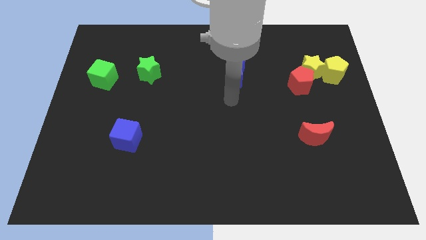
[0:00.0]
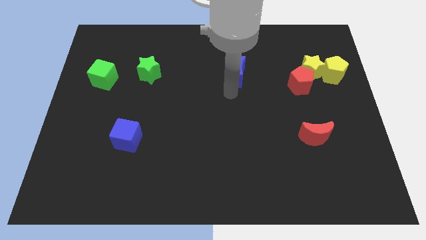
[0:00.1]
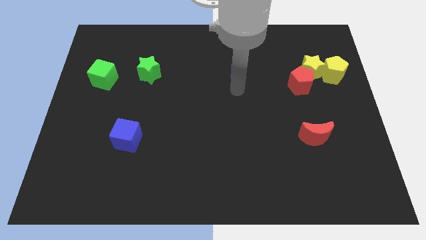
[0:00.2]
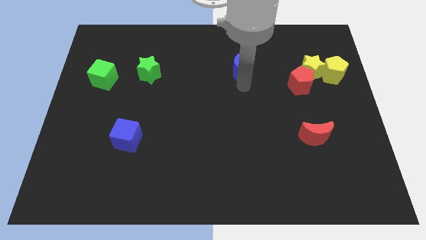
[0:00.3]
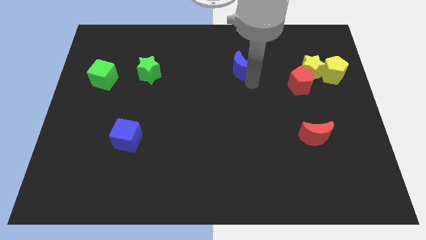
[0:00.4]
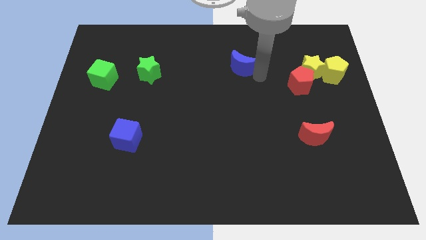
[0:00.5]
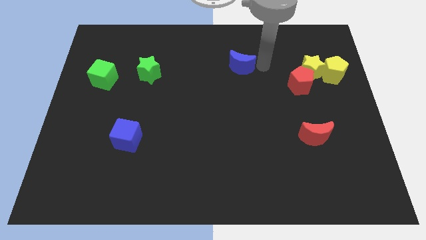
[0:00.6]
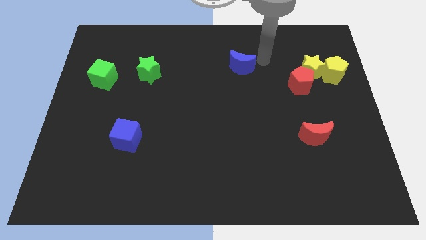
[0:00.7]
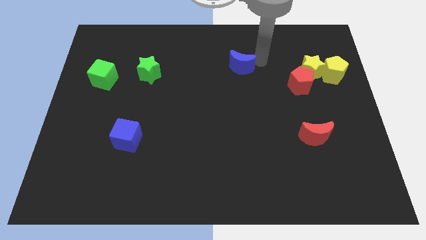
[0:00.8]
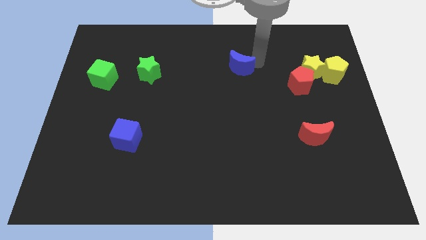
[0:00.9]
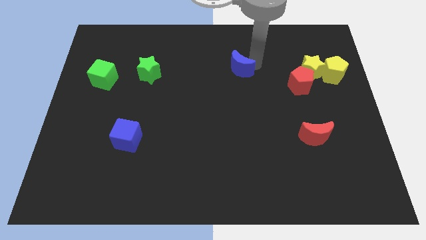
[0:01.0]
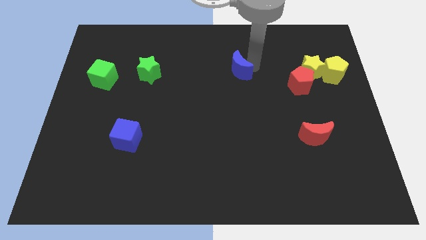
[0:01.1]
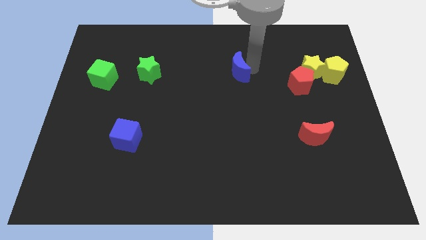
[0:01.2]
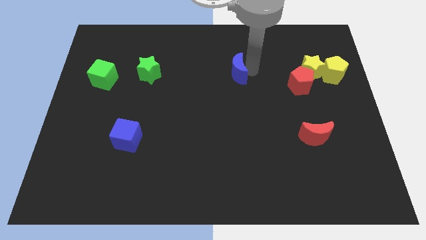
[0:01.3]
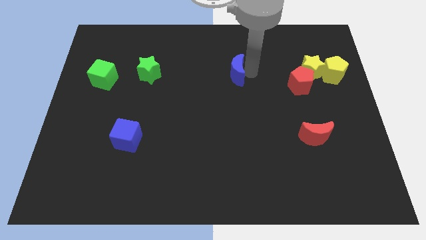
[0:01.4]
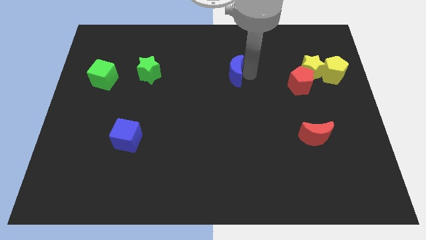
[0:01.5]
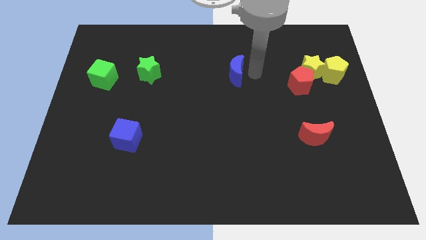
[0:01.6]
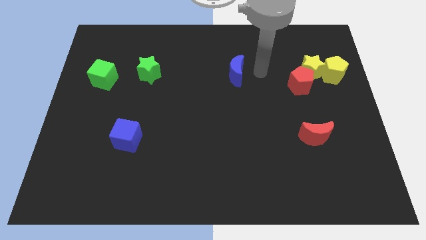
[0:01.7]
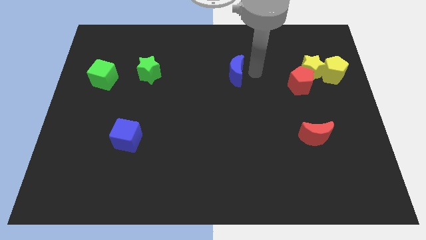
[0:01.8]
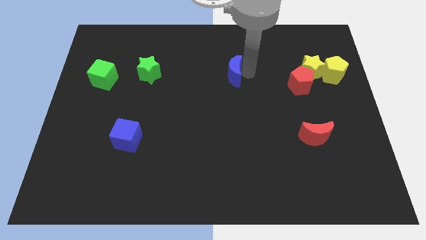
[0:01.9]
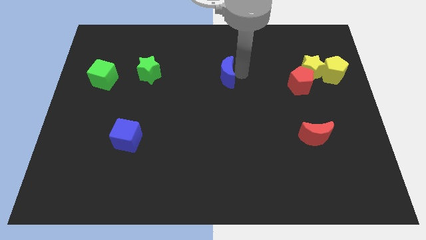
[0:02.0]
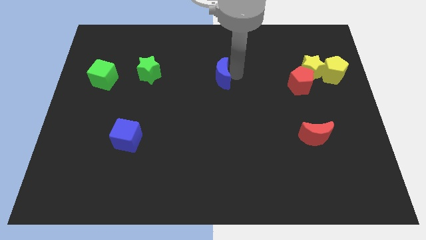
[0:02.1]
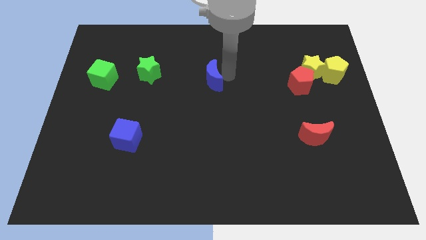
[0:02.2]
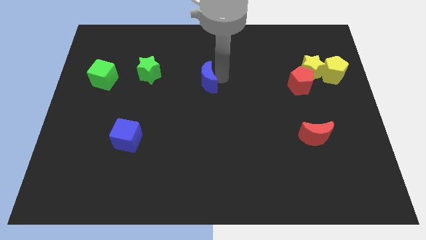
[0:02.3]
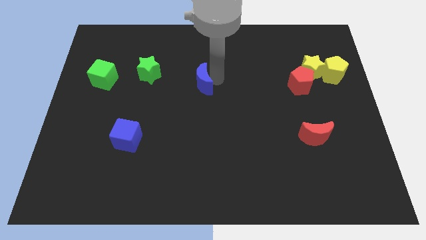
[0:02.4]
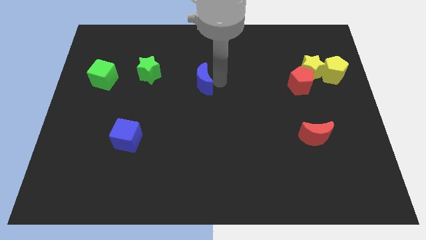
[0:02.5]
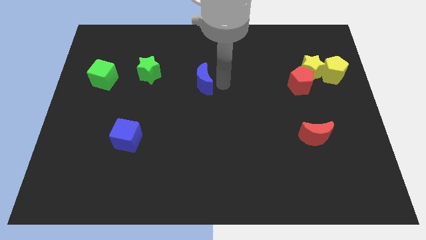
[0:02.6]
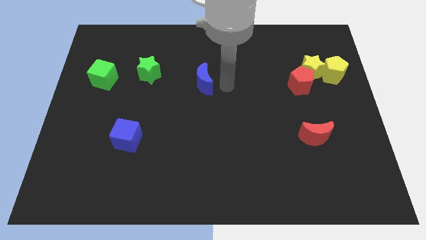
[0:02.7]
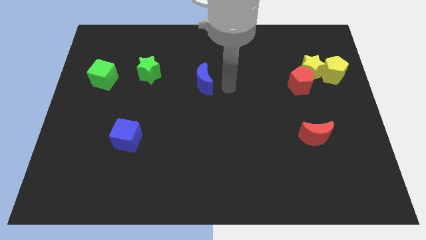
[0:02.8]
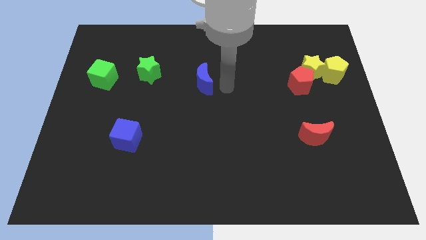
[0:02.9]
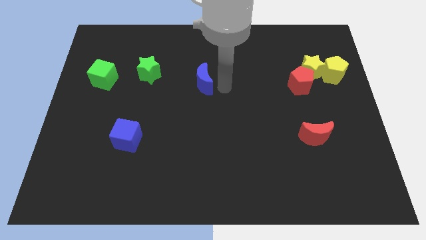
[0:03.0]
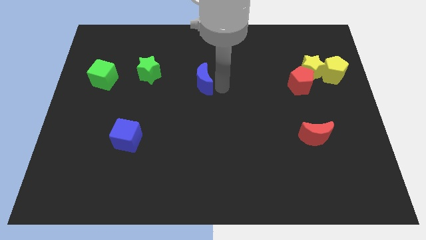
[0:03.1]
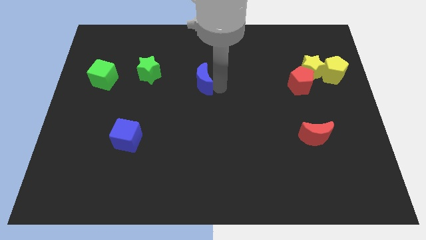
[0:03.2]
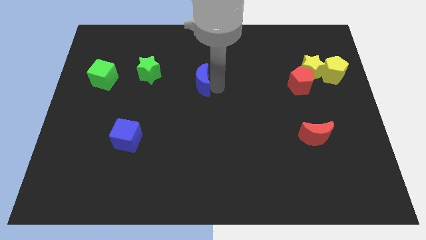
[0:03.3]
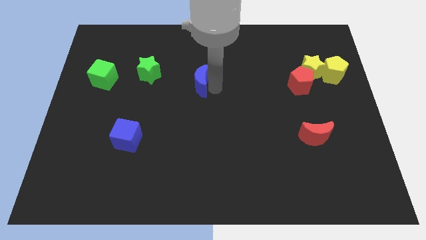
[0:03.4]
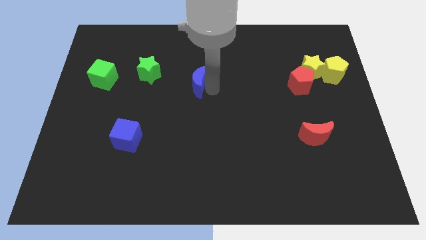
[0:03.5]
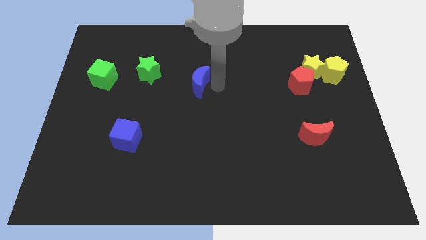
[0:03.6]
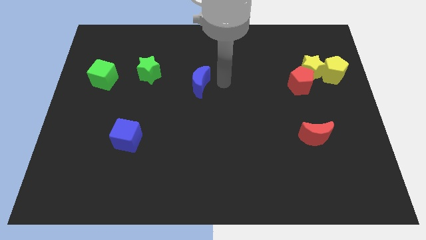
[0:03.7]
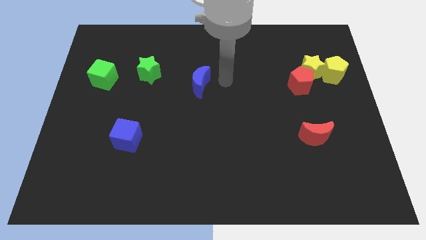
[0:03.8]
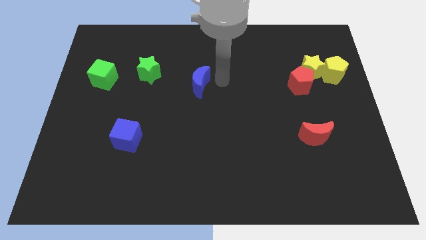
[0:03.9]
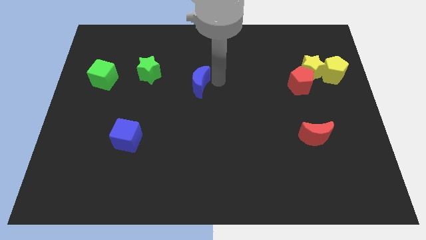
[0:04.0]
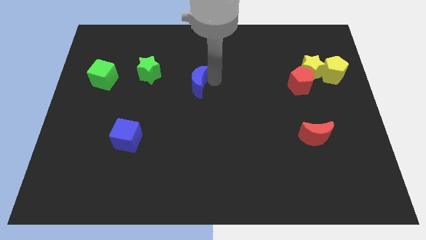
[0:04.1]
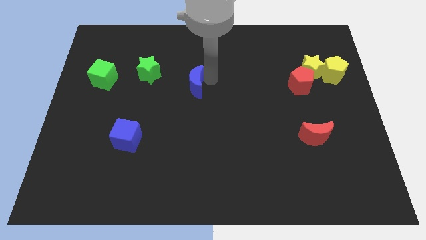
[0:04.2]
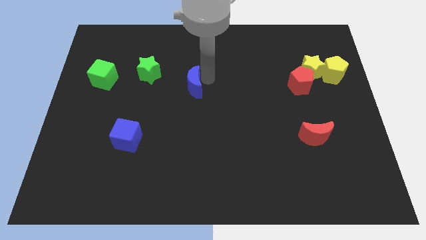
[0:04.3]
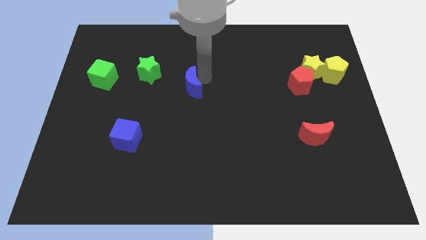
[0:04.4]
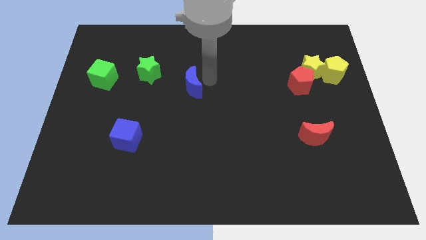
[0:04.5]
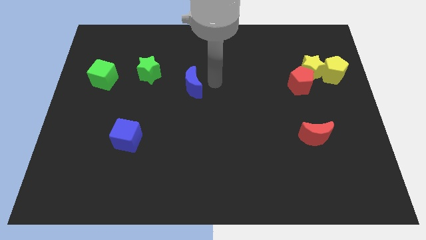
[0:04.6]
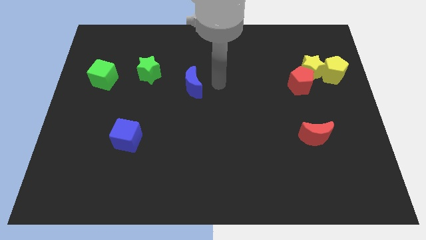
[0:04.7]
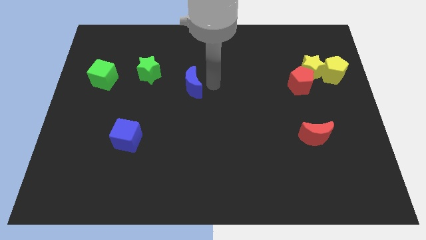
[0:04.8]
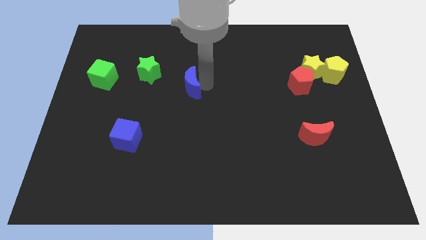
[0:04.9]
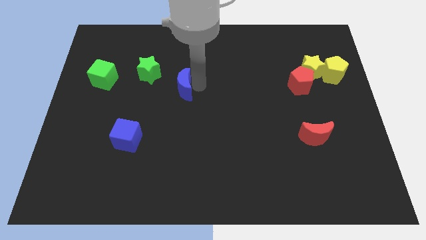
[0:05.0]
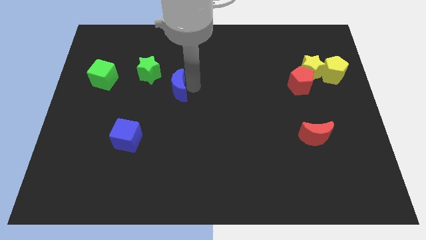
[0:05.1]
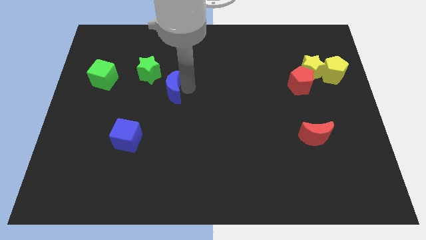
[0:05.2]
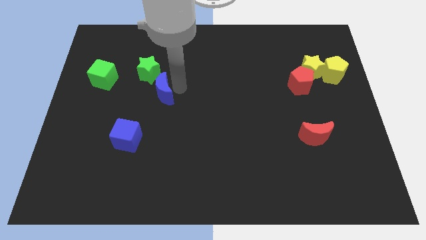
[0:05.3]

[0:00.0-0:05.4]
put the blue moon to the bottom of the green star

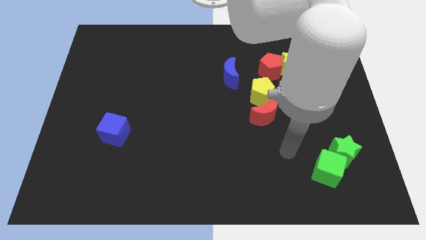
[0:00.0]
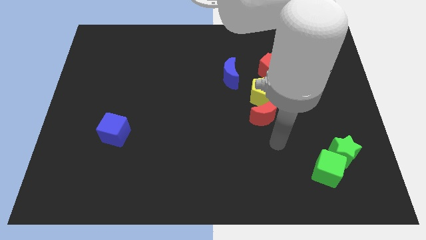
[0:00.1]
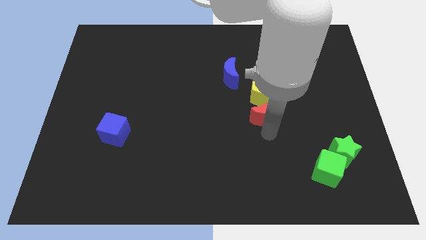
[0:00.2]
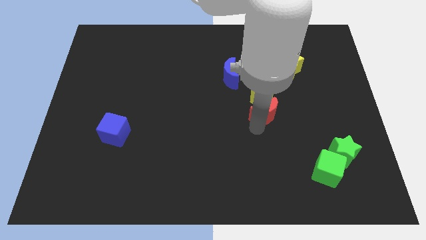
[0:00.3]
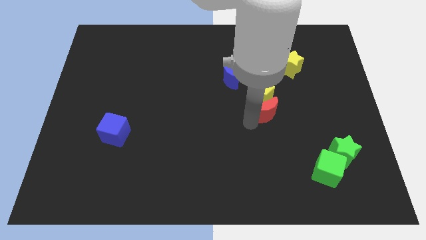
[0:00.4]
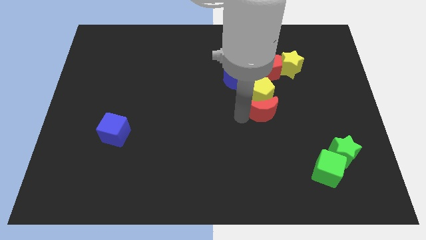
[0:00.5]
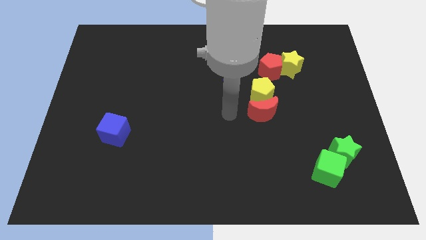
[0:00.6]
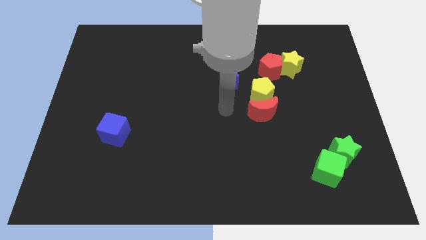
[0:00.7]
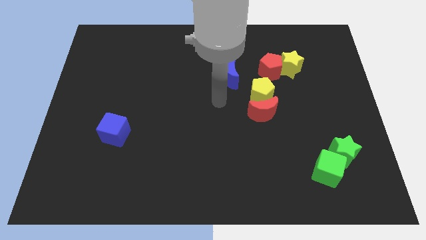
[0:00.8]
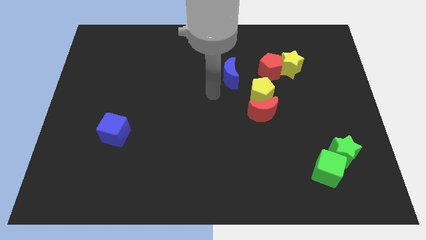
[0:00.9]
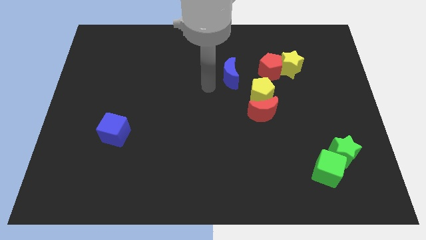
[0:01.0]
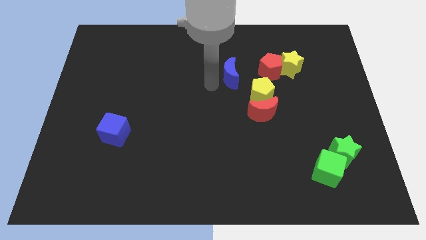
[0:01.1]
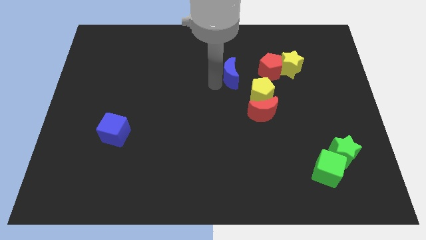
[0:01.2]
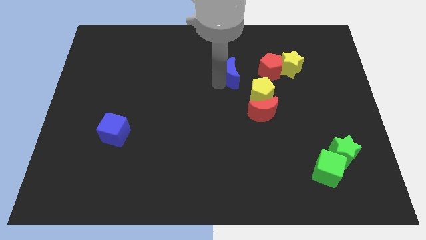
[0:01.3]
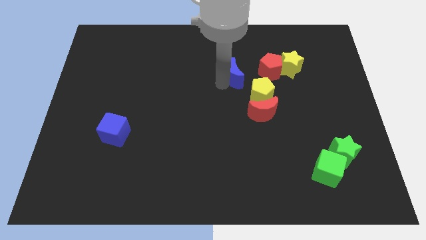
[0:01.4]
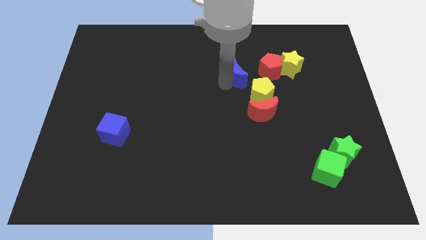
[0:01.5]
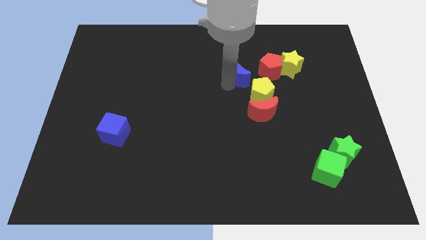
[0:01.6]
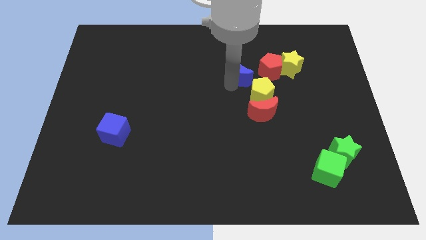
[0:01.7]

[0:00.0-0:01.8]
slide the blue moon above the yellow pentagon

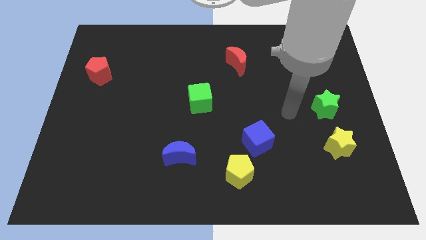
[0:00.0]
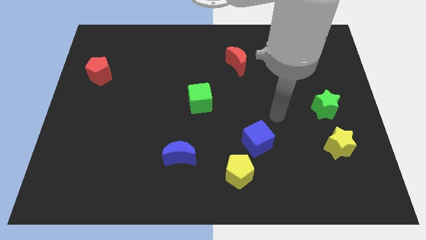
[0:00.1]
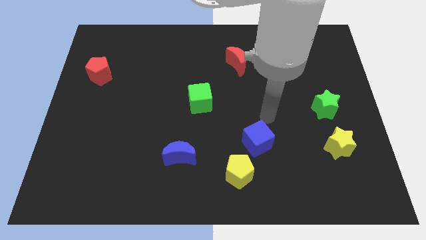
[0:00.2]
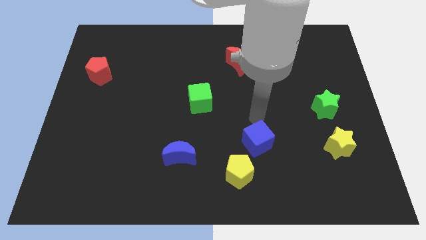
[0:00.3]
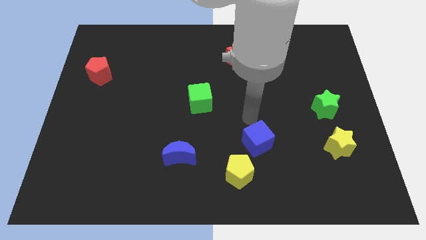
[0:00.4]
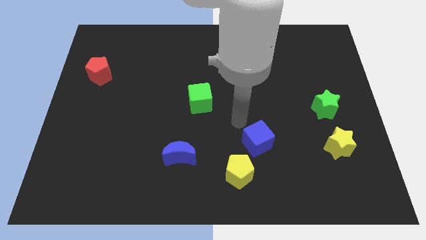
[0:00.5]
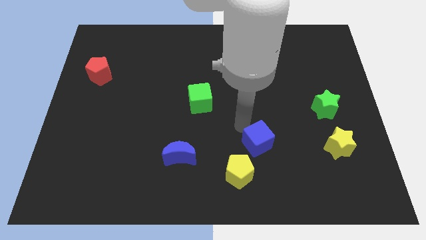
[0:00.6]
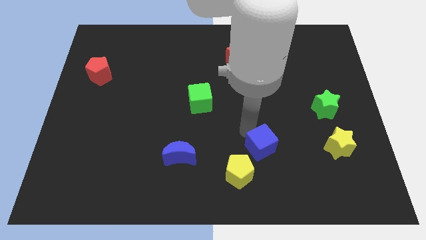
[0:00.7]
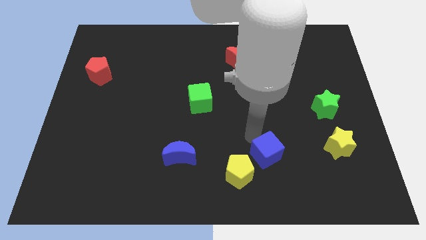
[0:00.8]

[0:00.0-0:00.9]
slide the blue cube to the right of the yellow pentagon
